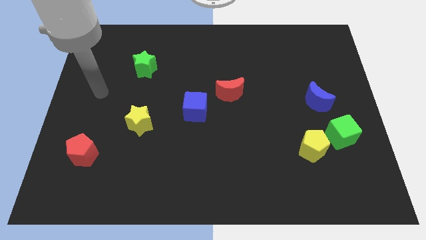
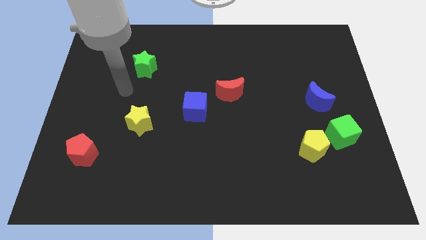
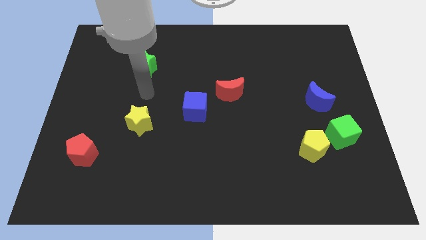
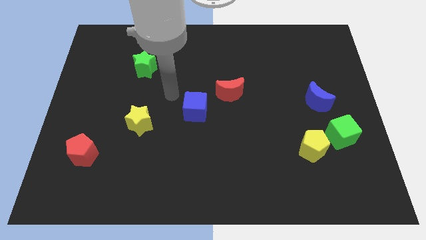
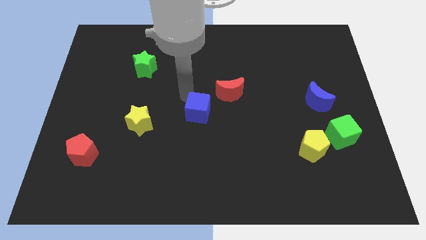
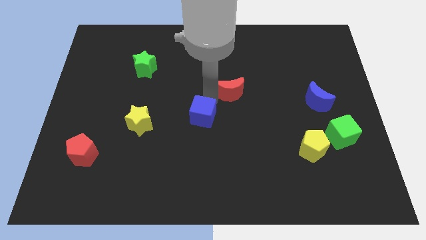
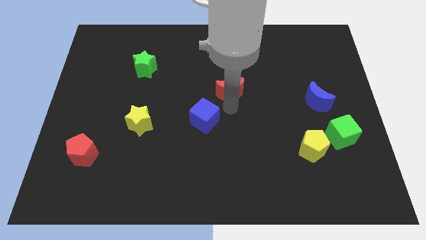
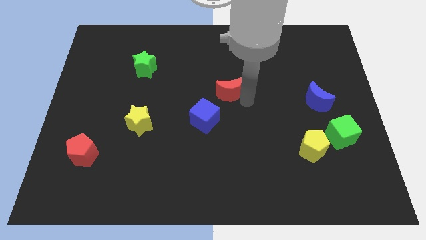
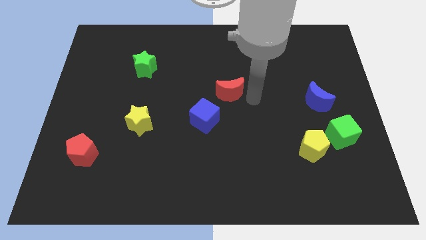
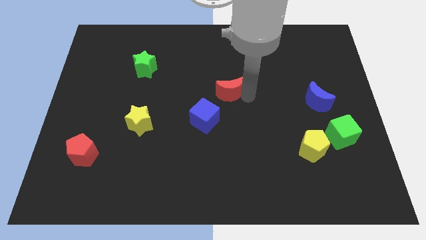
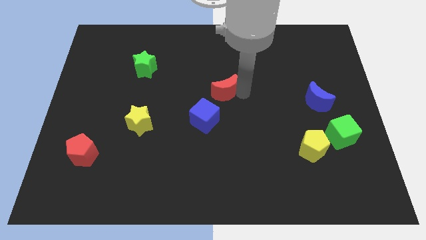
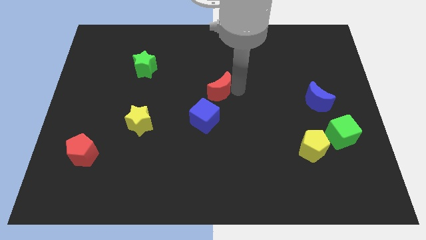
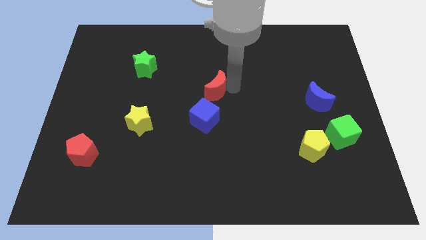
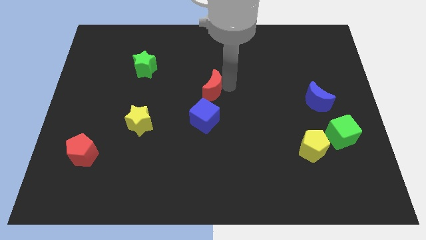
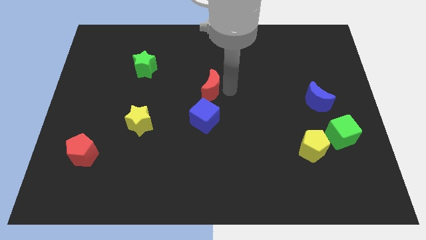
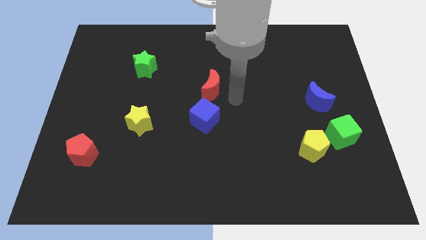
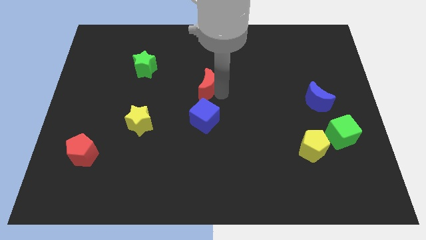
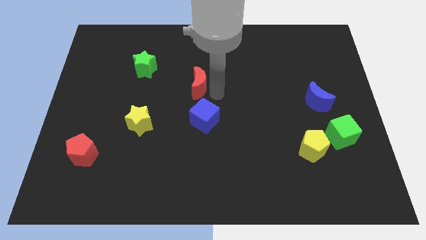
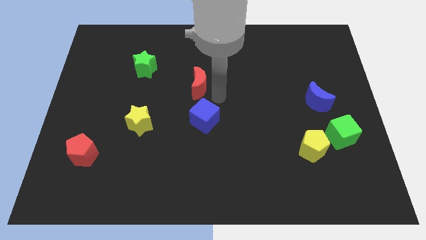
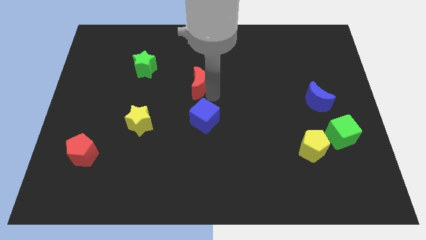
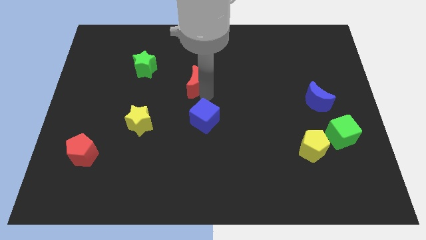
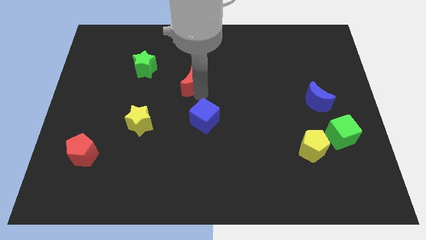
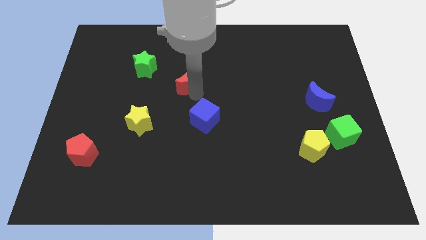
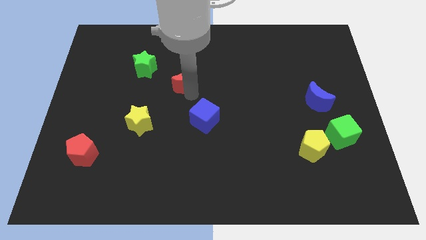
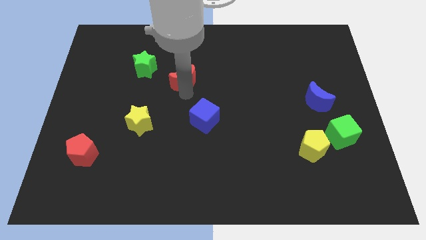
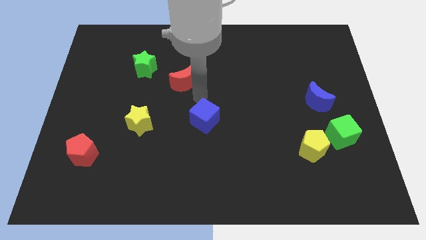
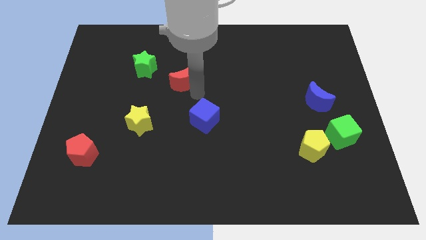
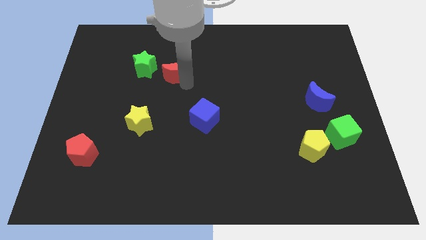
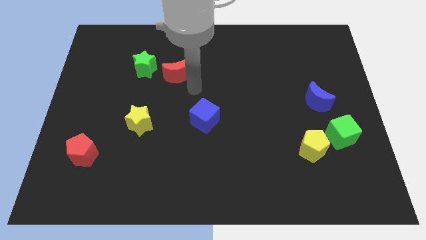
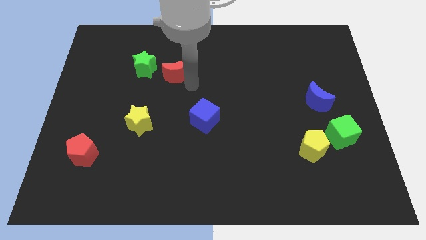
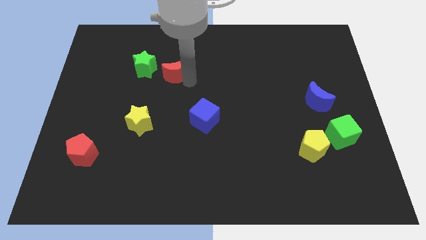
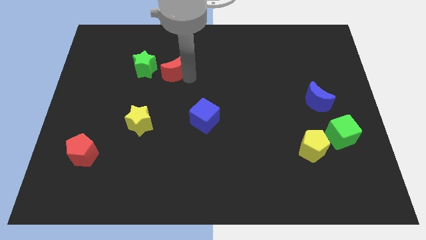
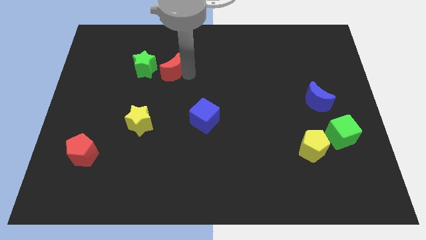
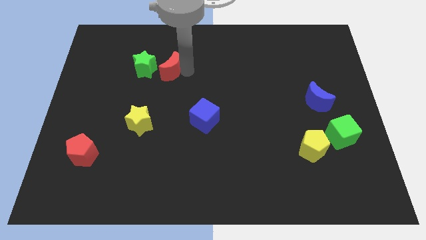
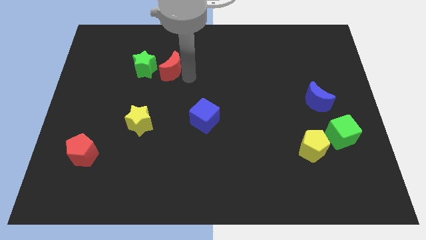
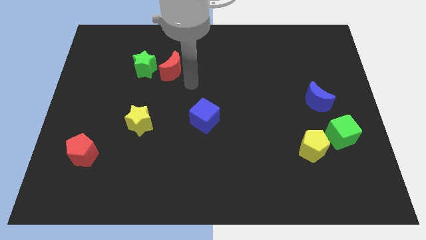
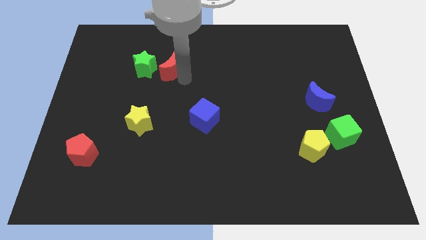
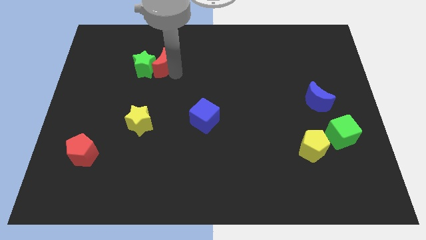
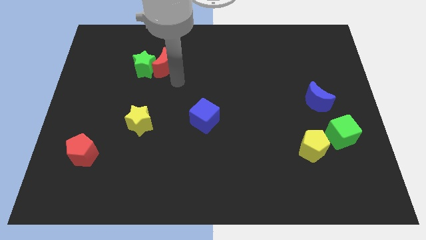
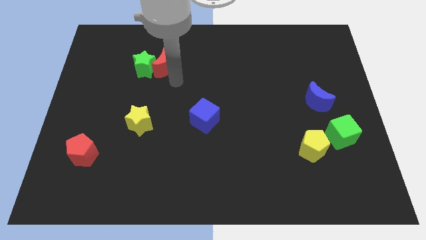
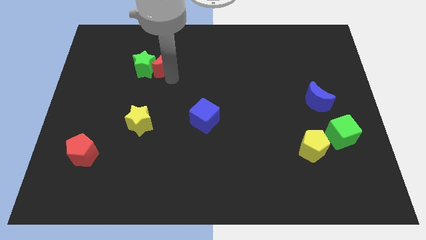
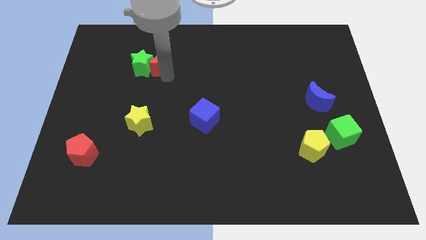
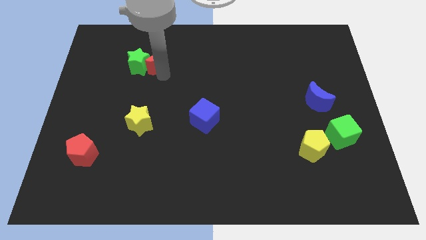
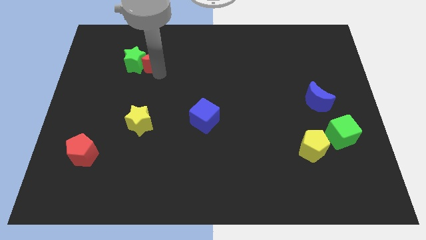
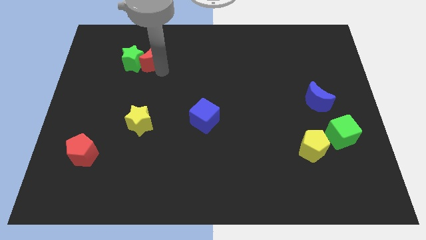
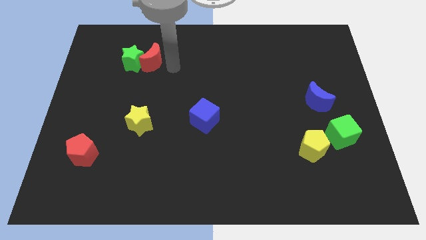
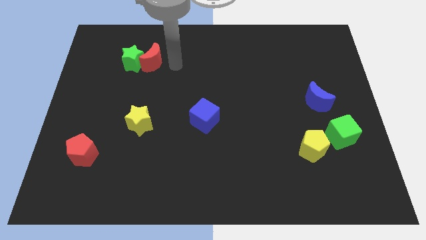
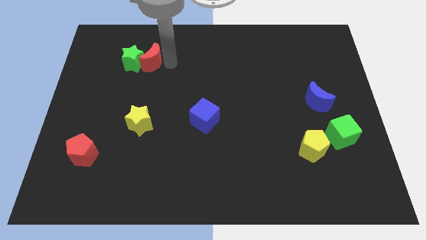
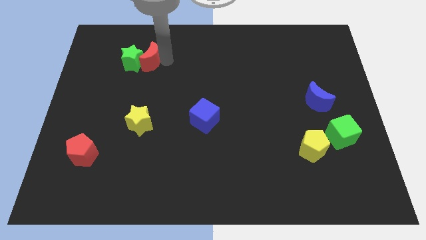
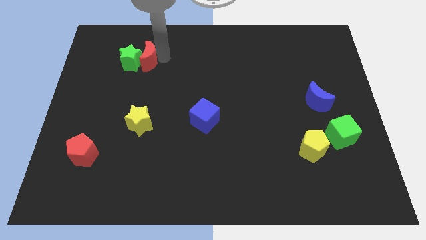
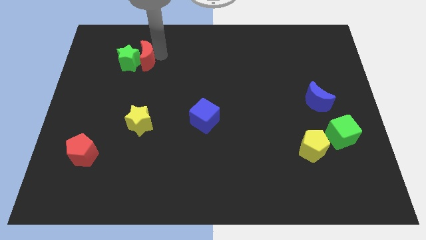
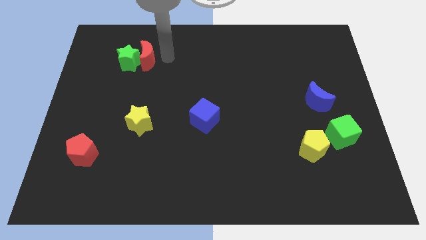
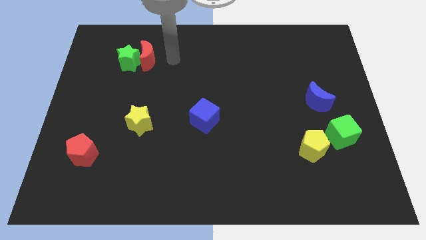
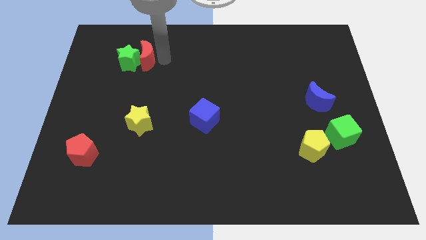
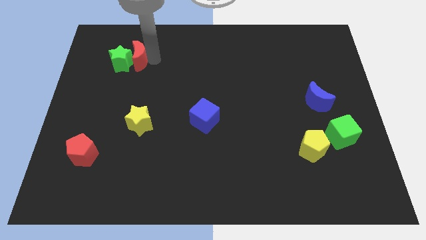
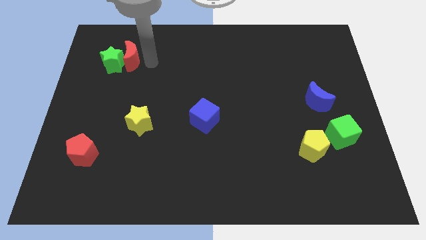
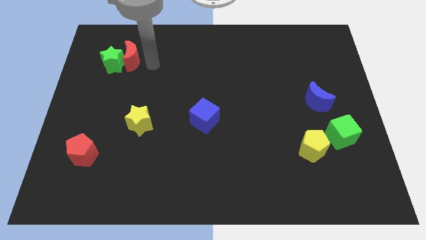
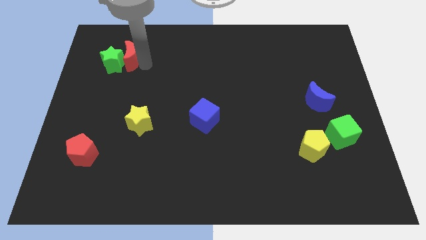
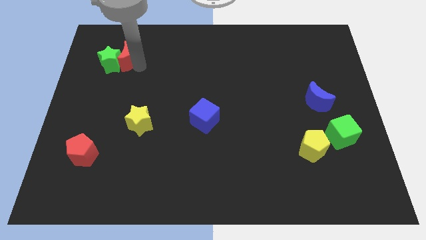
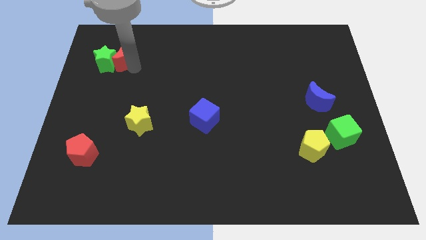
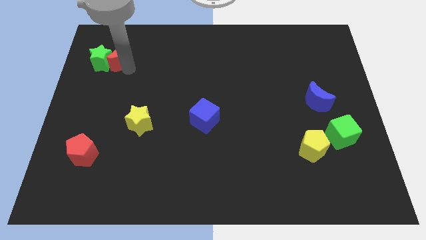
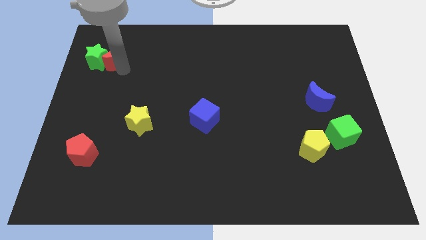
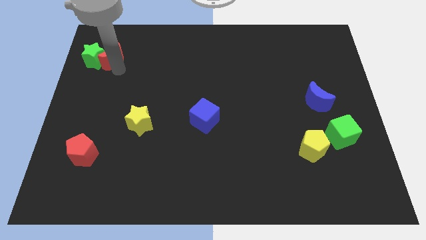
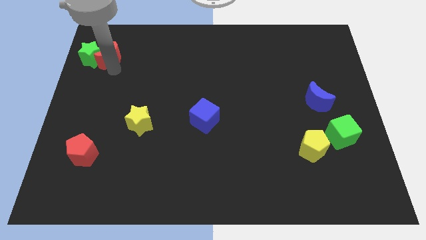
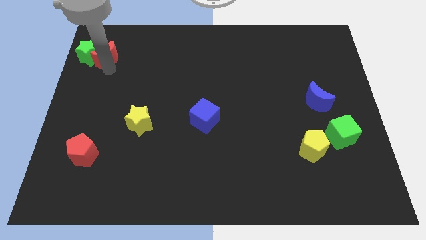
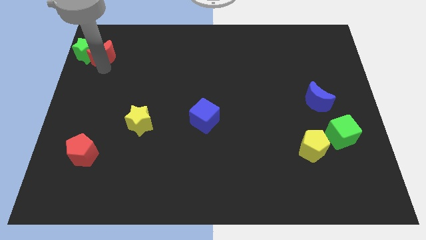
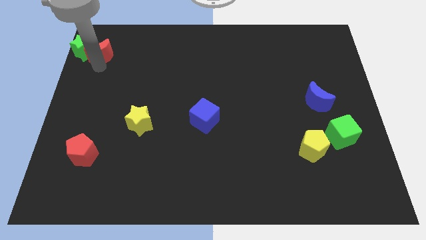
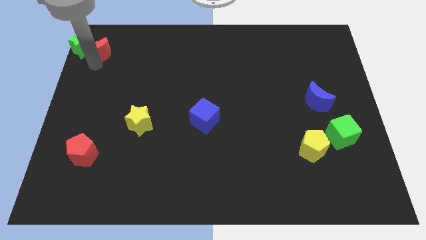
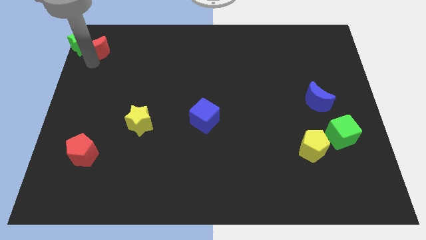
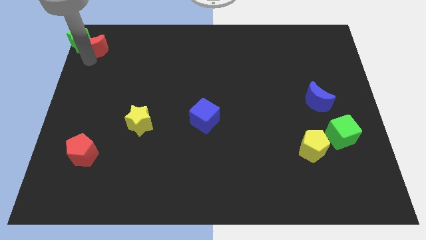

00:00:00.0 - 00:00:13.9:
put the red moon to the top left of the board
